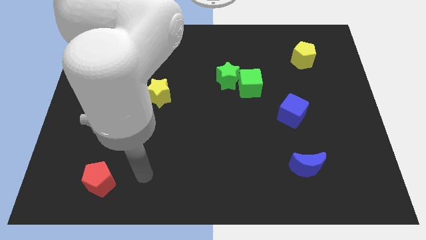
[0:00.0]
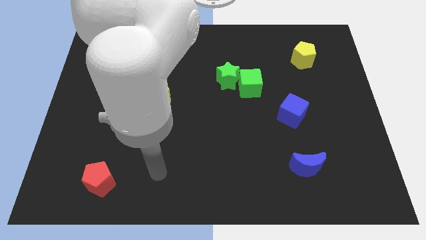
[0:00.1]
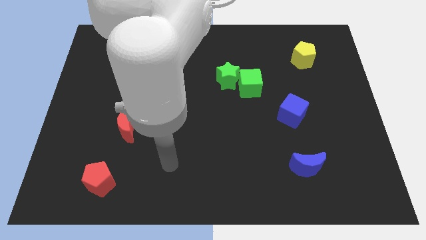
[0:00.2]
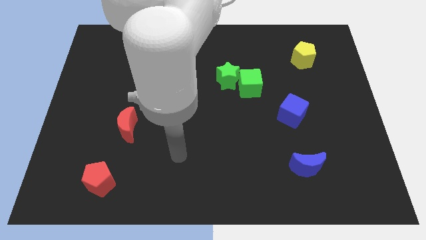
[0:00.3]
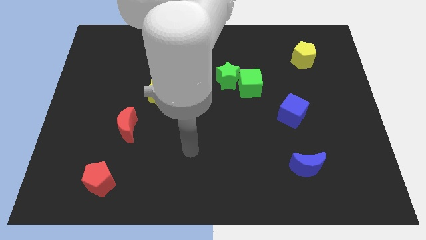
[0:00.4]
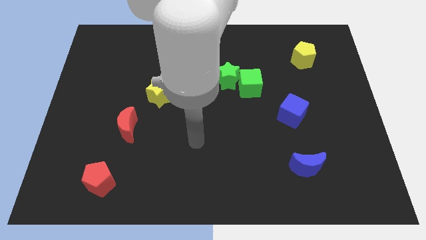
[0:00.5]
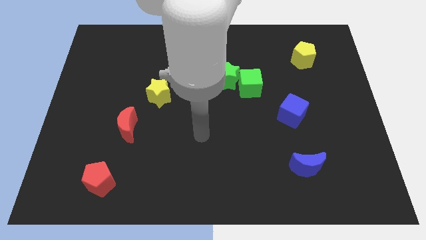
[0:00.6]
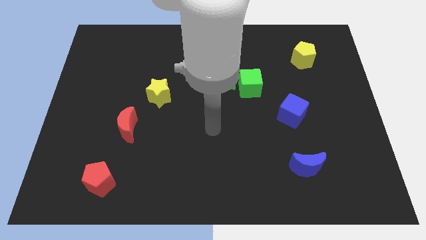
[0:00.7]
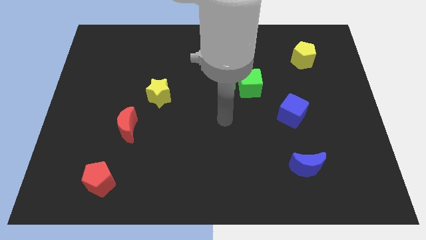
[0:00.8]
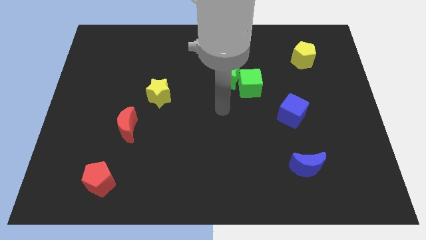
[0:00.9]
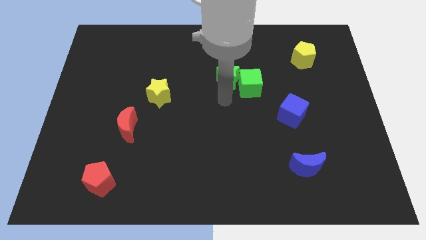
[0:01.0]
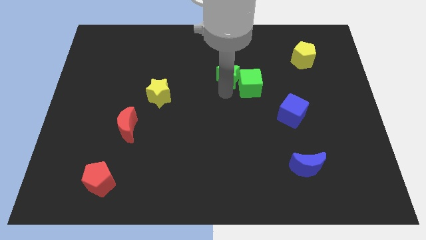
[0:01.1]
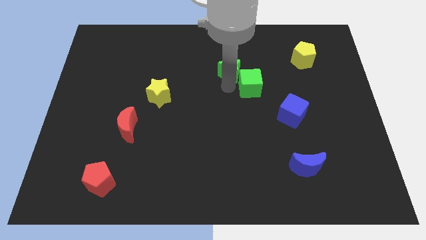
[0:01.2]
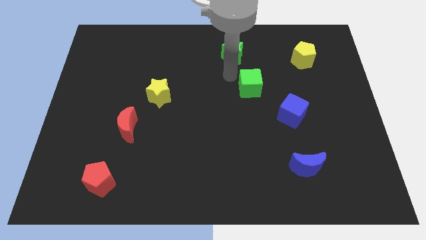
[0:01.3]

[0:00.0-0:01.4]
pull the green cube apart from the green star

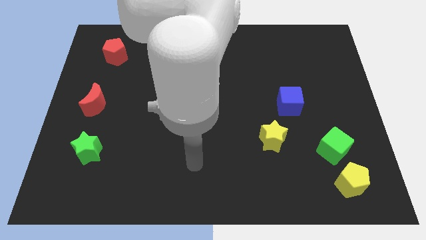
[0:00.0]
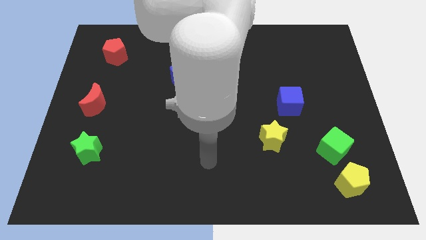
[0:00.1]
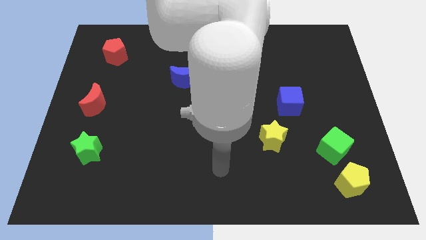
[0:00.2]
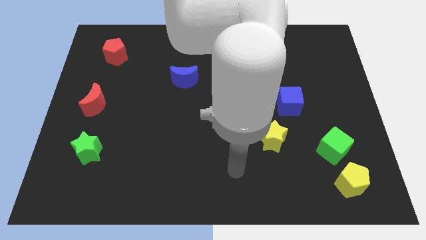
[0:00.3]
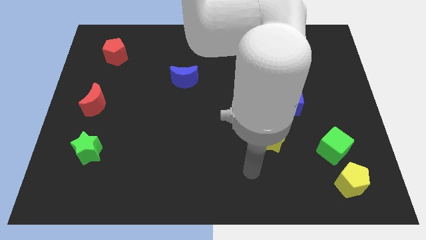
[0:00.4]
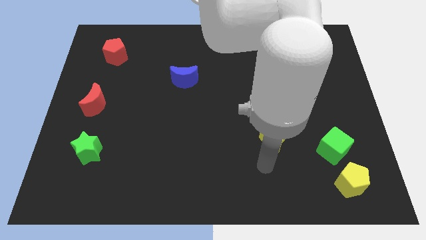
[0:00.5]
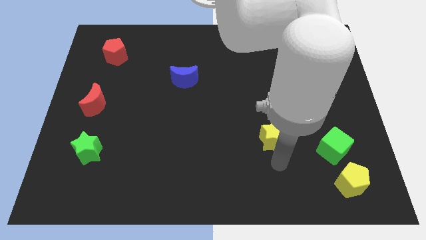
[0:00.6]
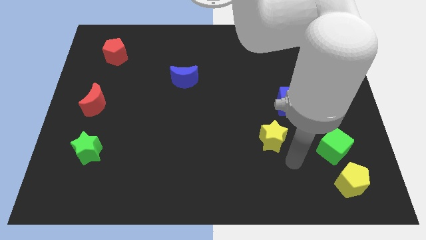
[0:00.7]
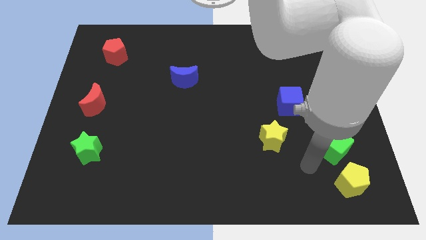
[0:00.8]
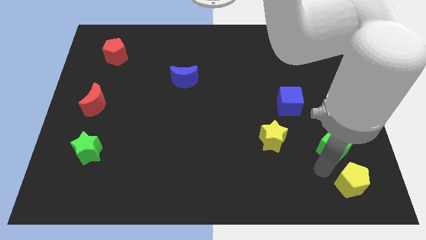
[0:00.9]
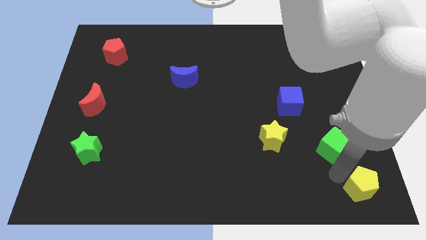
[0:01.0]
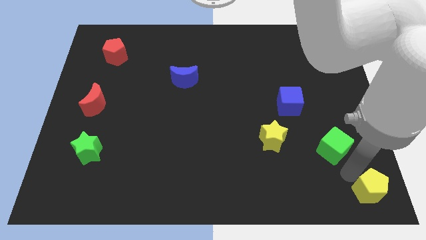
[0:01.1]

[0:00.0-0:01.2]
move the green cube away from the yellow pentagon

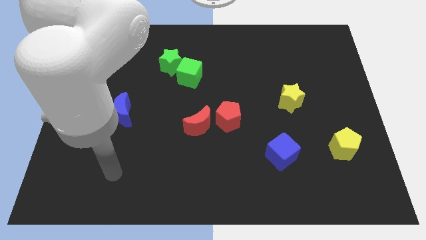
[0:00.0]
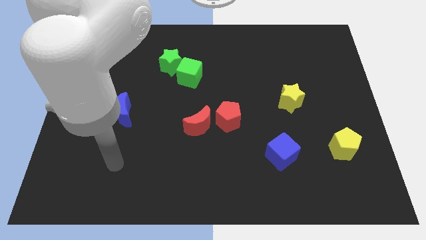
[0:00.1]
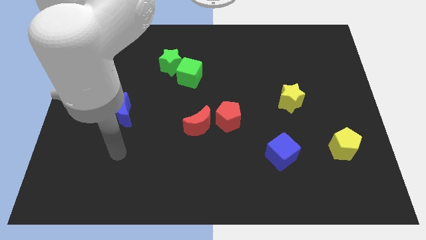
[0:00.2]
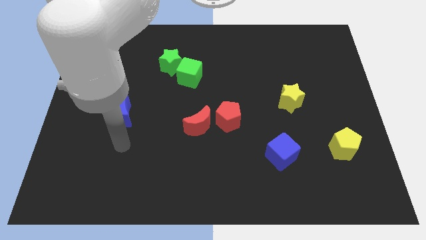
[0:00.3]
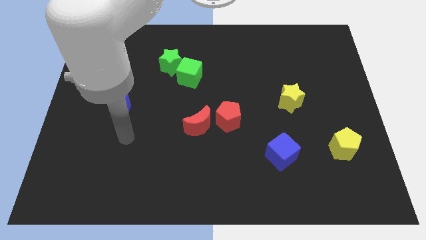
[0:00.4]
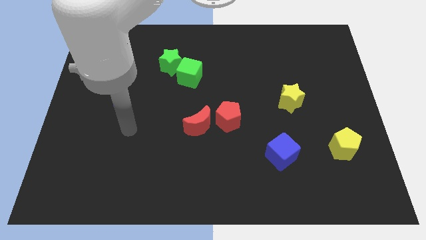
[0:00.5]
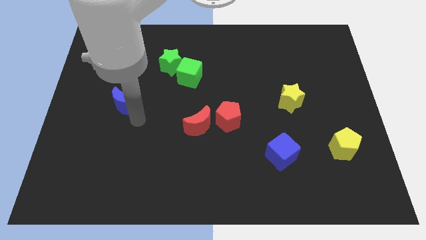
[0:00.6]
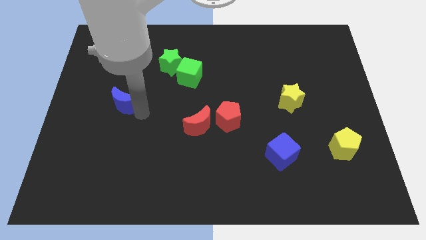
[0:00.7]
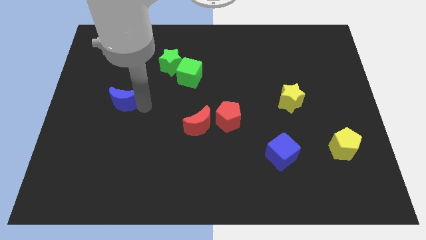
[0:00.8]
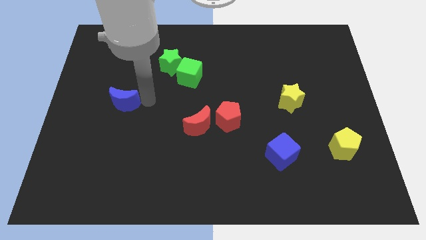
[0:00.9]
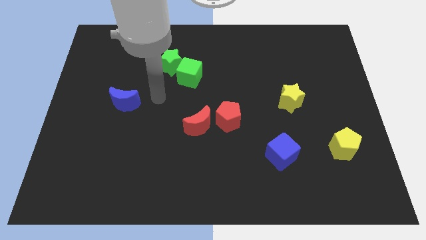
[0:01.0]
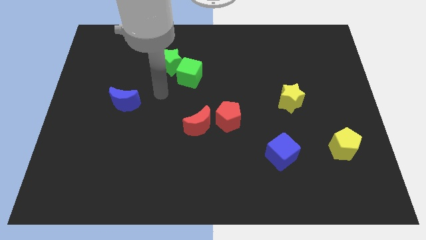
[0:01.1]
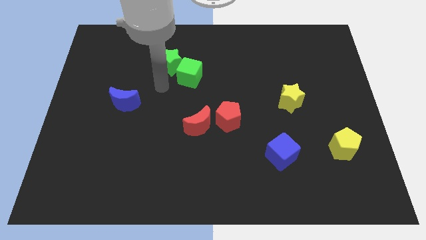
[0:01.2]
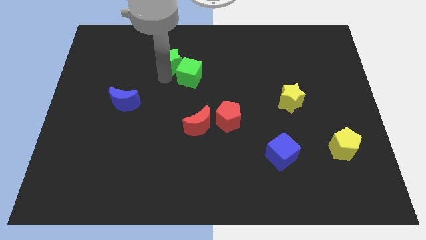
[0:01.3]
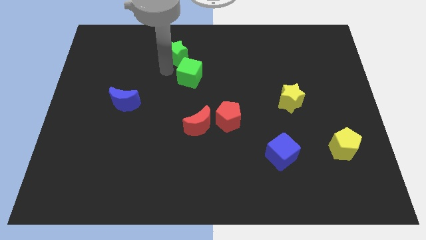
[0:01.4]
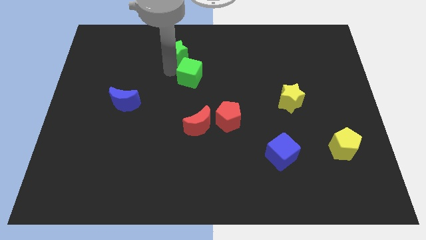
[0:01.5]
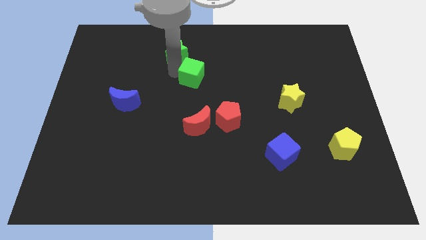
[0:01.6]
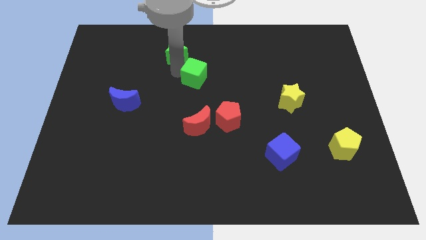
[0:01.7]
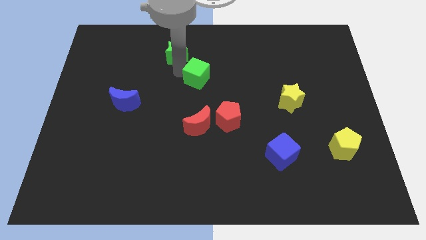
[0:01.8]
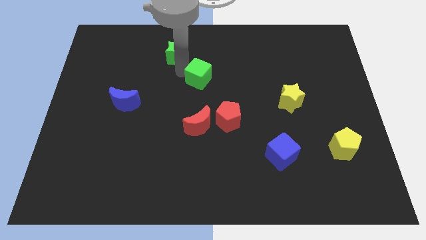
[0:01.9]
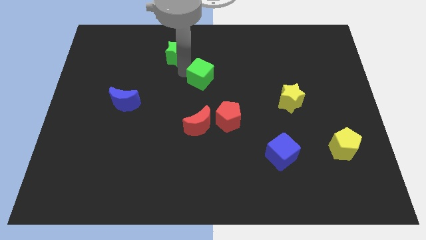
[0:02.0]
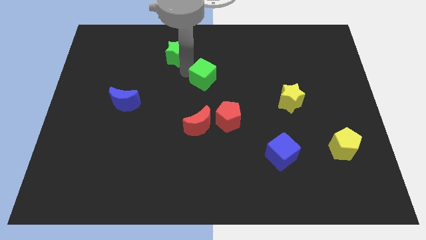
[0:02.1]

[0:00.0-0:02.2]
move the green cube away from the green star

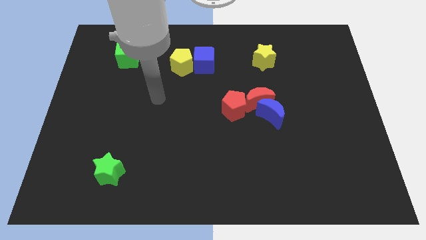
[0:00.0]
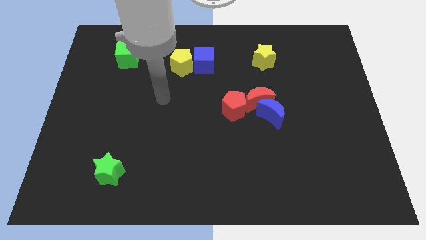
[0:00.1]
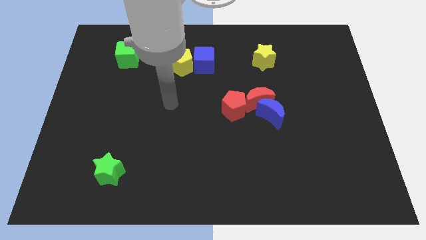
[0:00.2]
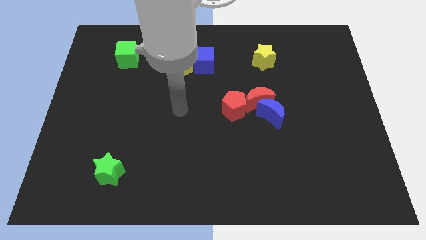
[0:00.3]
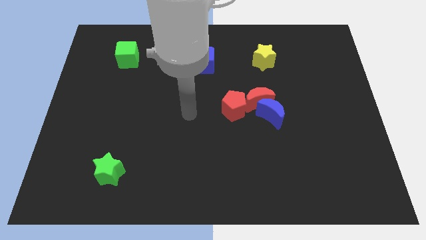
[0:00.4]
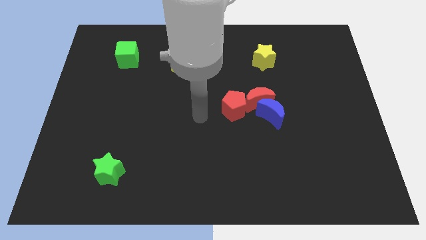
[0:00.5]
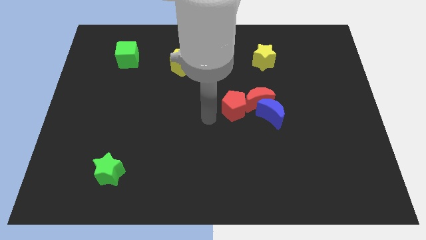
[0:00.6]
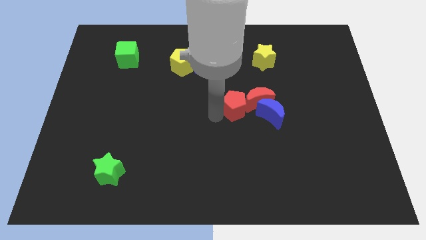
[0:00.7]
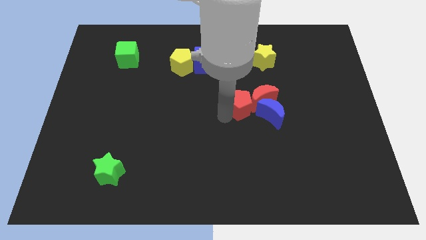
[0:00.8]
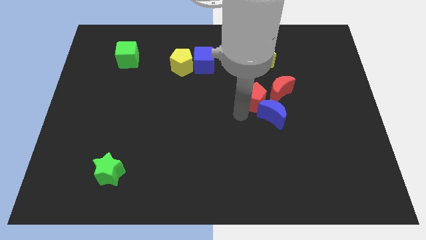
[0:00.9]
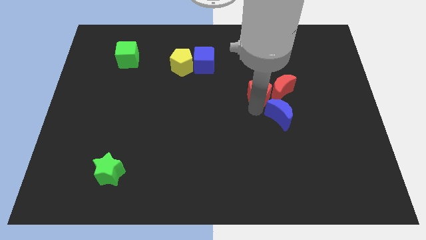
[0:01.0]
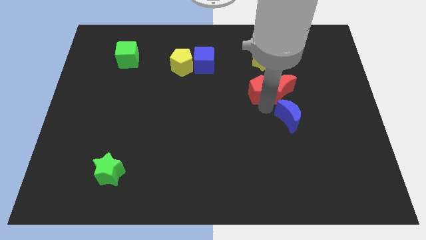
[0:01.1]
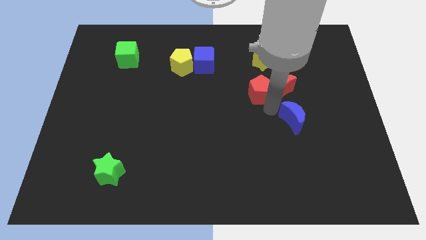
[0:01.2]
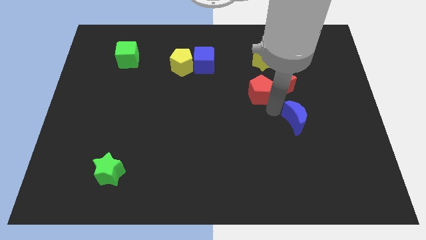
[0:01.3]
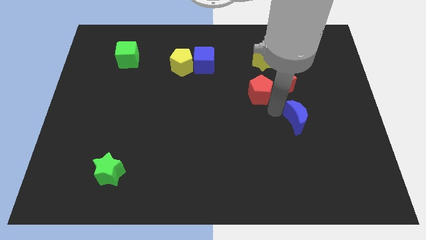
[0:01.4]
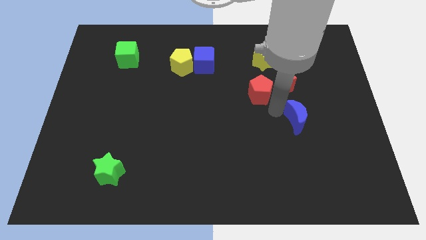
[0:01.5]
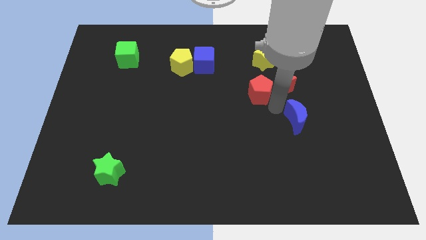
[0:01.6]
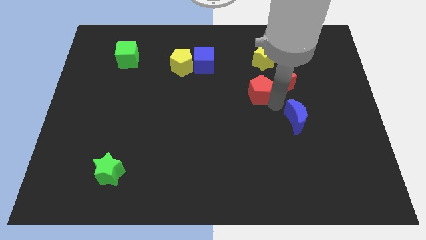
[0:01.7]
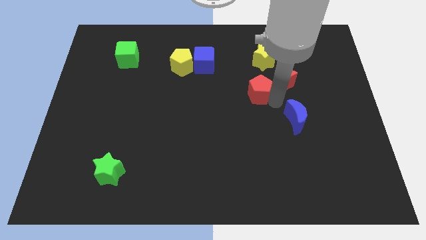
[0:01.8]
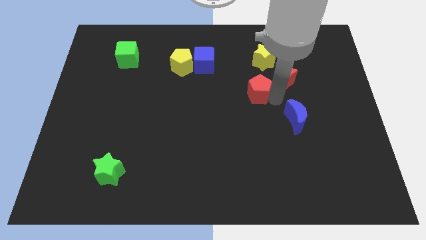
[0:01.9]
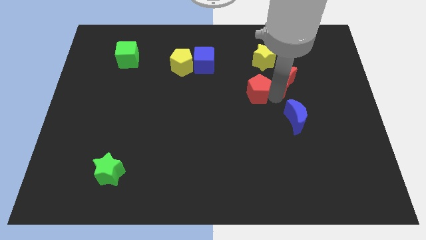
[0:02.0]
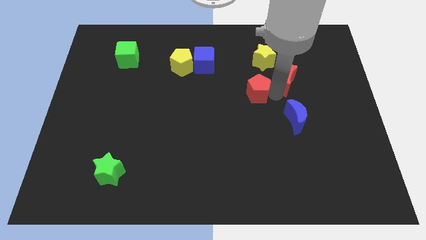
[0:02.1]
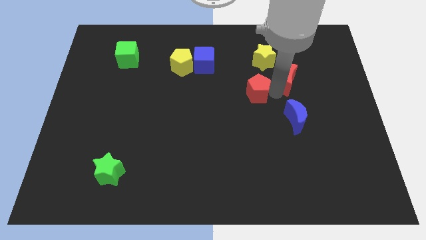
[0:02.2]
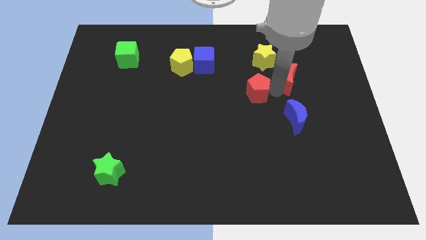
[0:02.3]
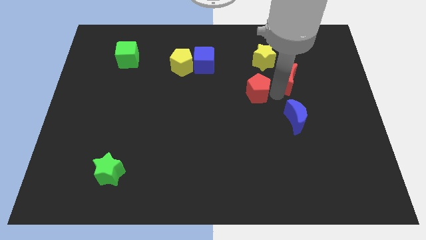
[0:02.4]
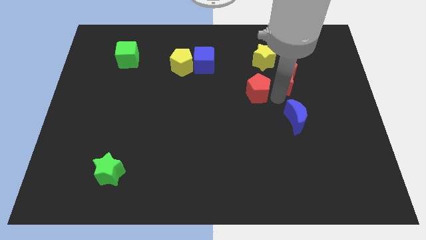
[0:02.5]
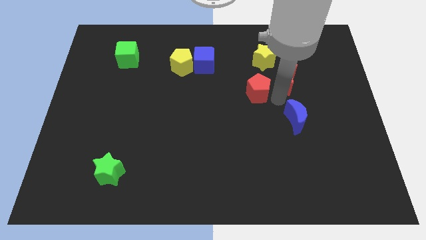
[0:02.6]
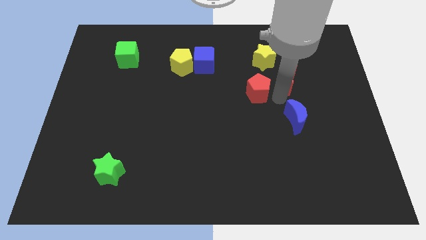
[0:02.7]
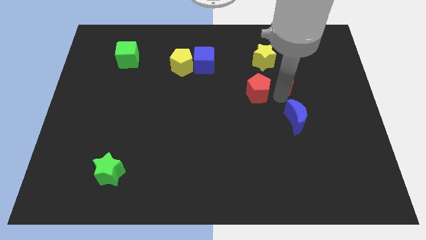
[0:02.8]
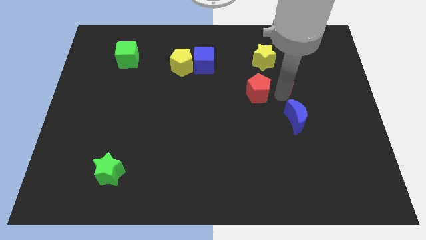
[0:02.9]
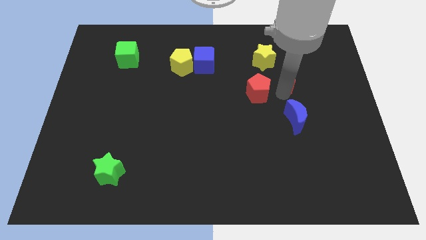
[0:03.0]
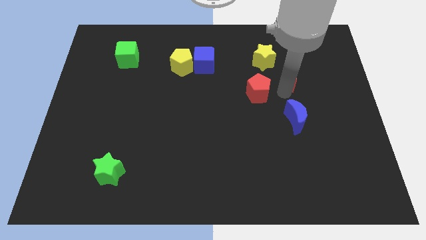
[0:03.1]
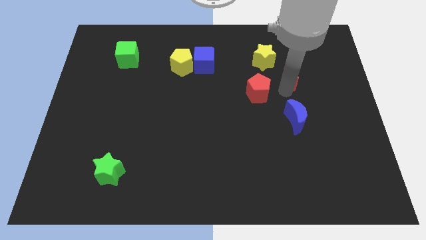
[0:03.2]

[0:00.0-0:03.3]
separate the red moon from the blue moon and red pentagon

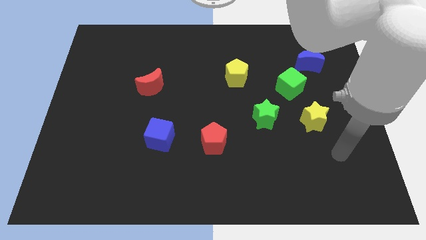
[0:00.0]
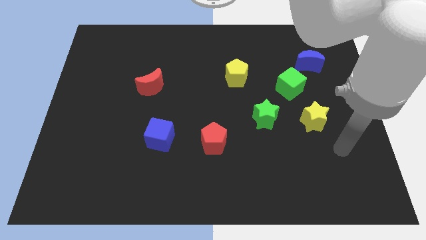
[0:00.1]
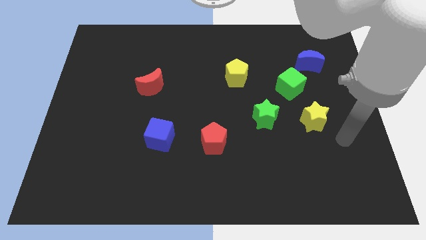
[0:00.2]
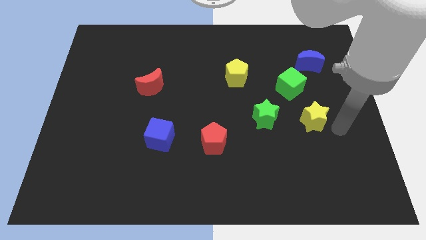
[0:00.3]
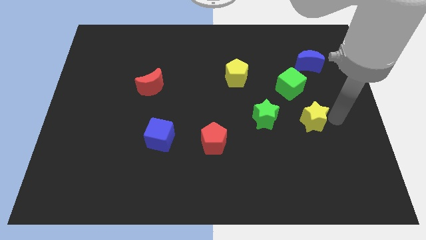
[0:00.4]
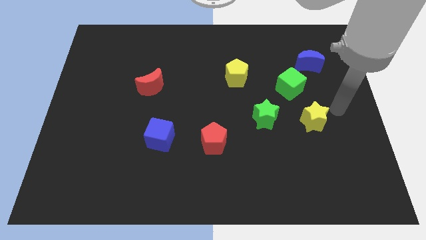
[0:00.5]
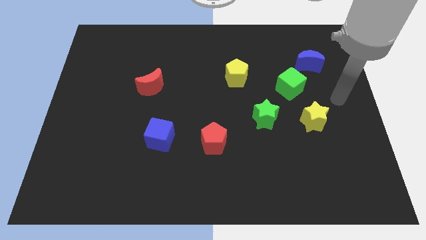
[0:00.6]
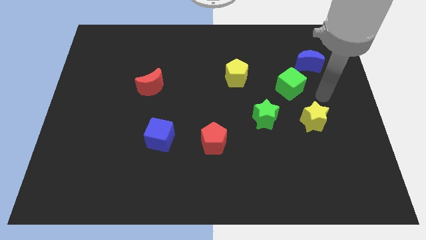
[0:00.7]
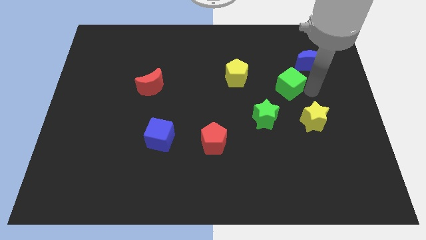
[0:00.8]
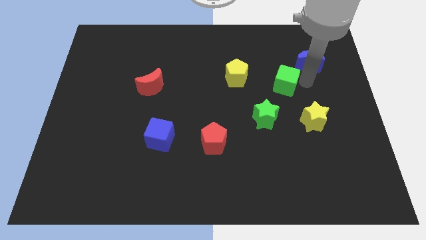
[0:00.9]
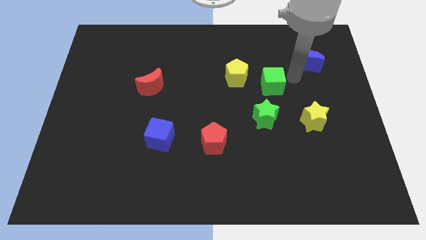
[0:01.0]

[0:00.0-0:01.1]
pull the blue moon apart from the green cube
